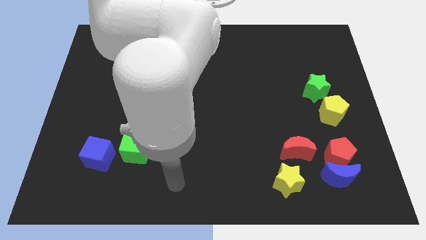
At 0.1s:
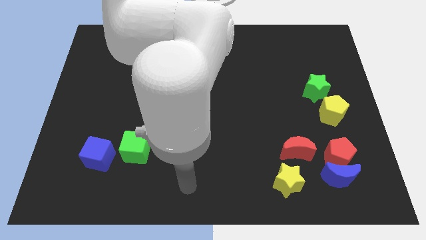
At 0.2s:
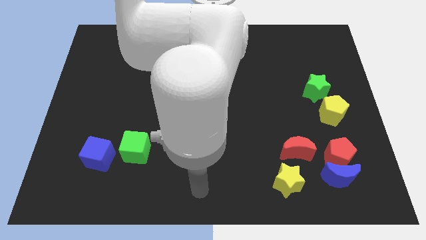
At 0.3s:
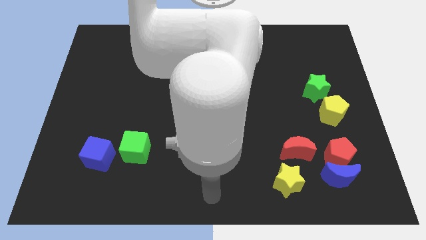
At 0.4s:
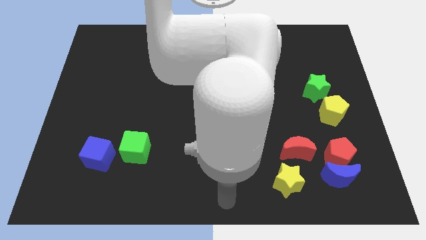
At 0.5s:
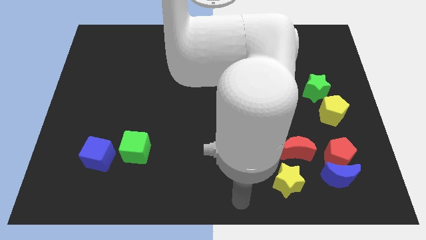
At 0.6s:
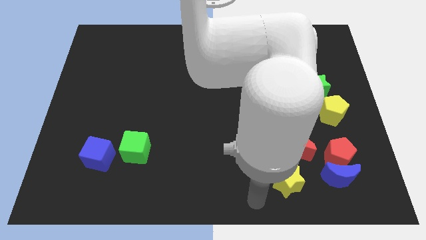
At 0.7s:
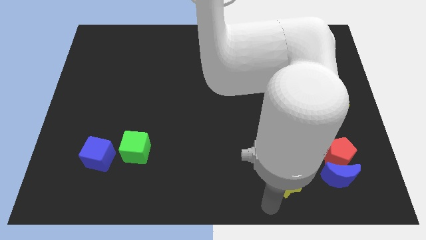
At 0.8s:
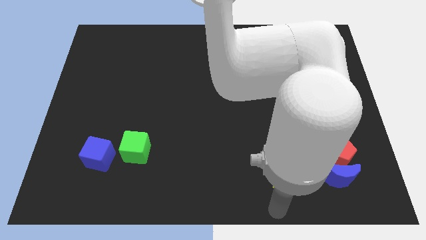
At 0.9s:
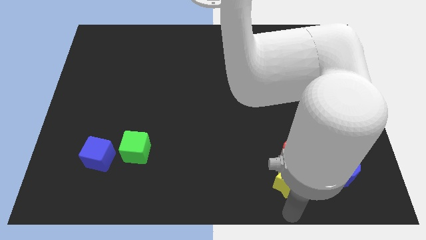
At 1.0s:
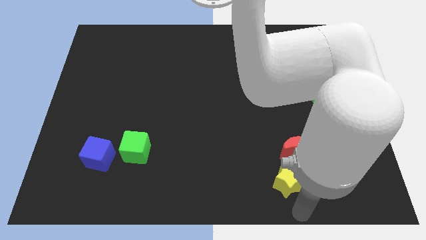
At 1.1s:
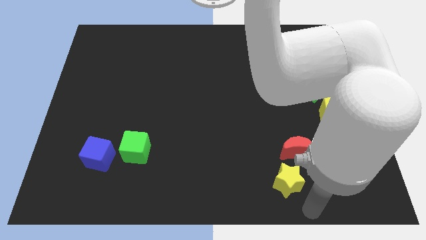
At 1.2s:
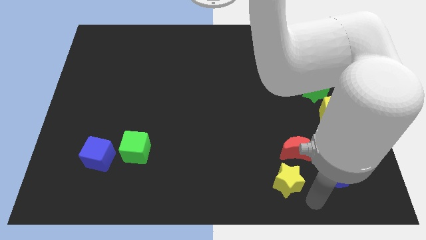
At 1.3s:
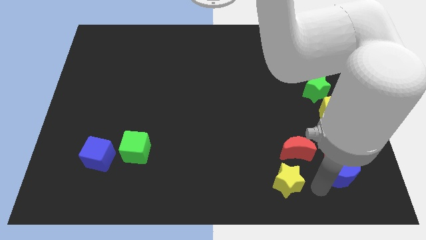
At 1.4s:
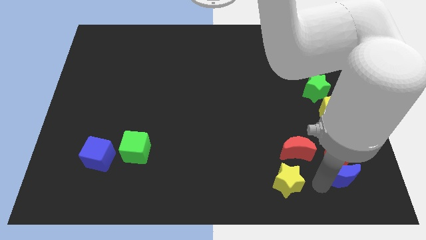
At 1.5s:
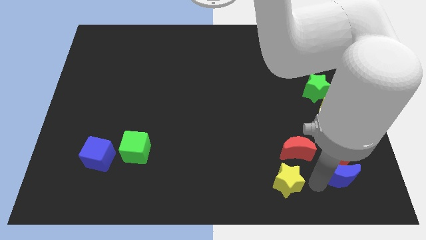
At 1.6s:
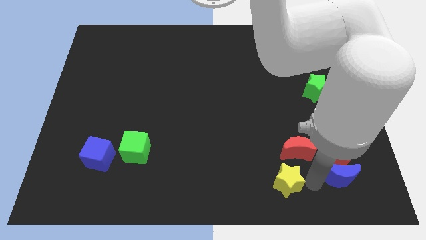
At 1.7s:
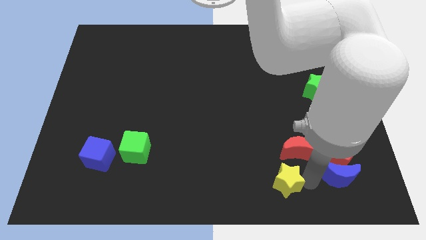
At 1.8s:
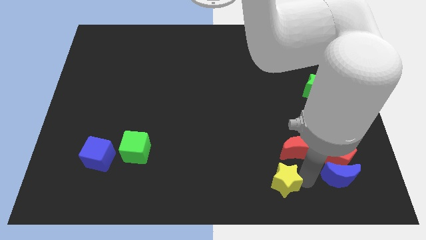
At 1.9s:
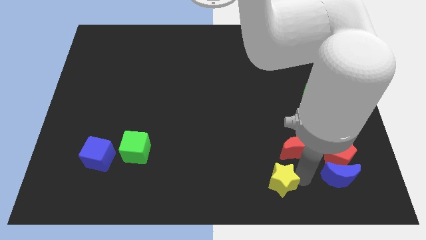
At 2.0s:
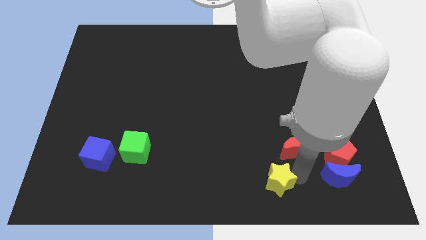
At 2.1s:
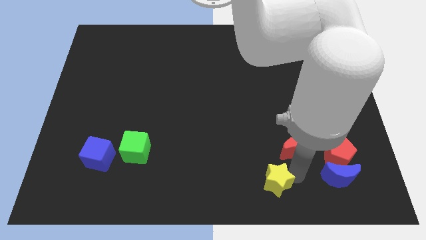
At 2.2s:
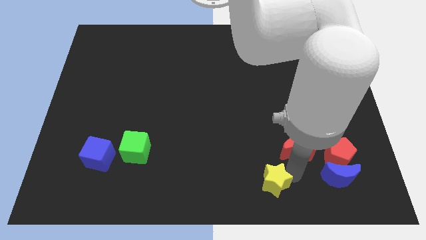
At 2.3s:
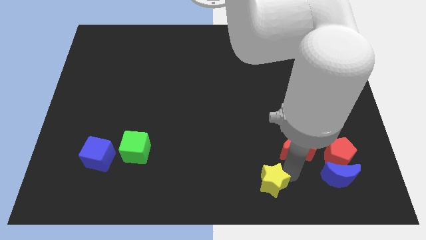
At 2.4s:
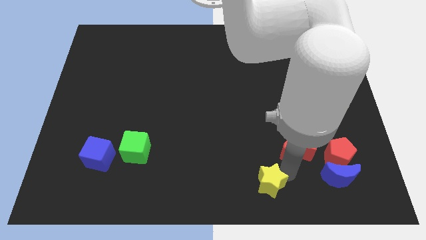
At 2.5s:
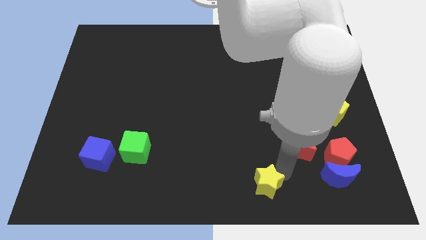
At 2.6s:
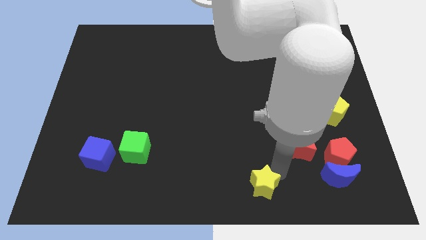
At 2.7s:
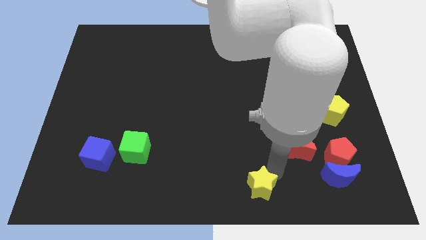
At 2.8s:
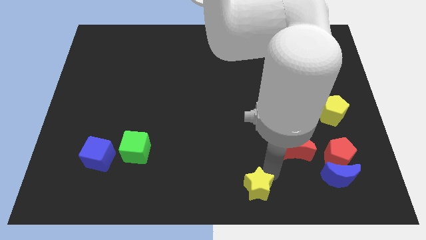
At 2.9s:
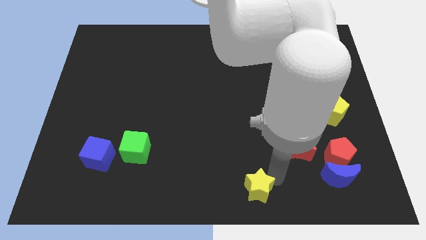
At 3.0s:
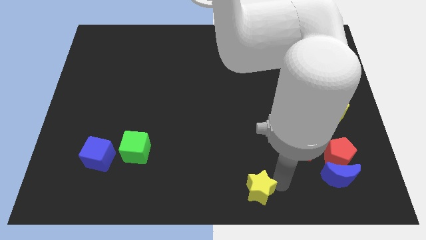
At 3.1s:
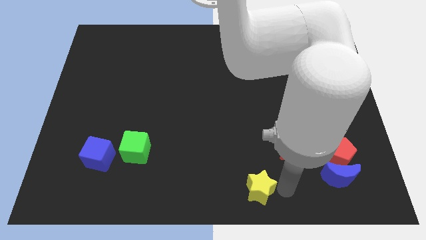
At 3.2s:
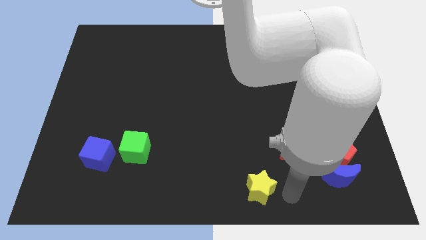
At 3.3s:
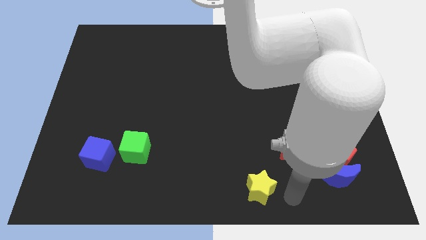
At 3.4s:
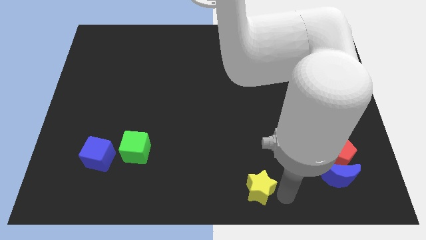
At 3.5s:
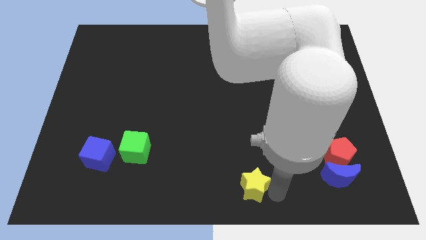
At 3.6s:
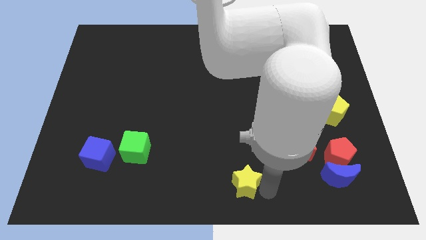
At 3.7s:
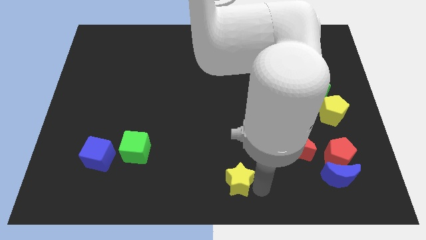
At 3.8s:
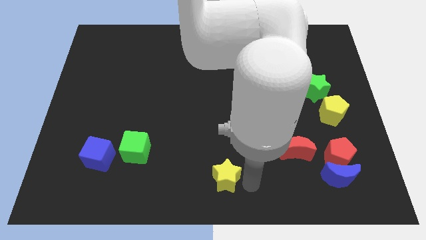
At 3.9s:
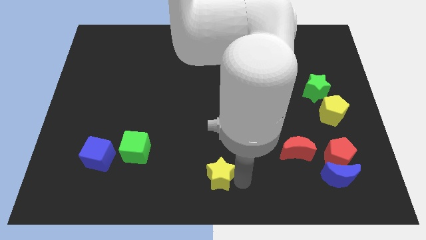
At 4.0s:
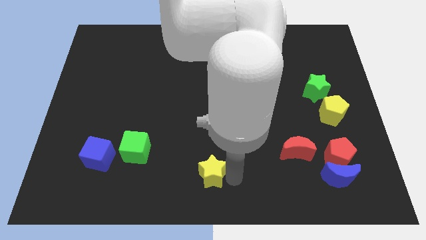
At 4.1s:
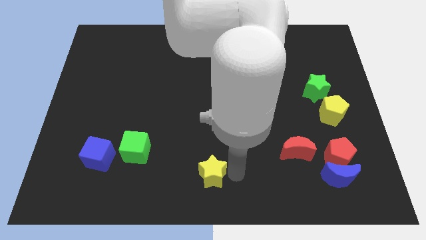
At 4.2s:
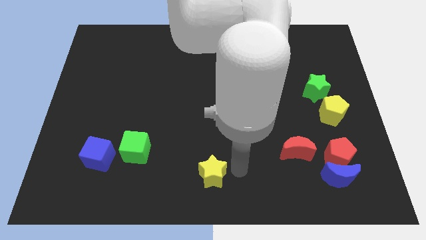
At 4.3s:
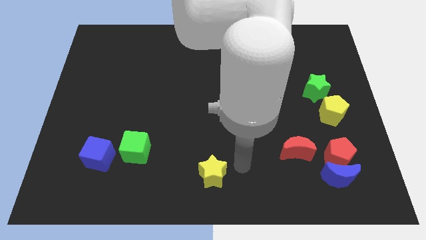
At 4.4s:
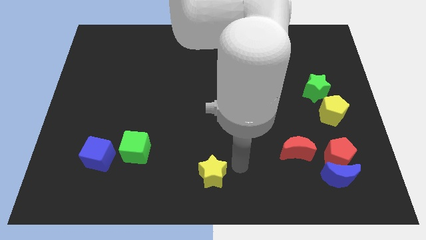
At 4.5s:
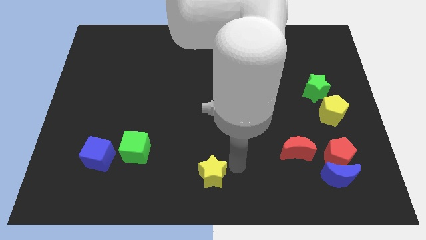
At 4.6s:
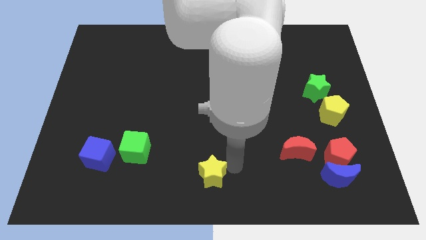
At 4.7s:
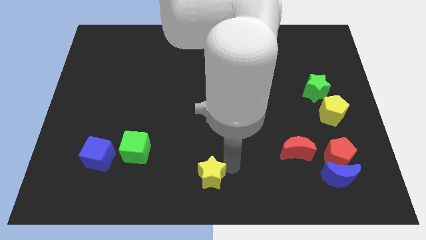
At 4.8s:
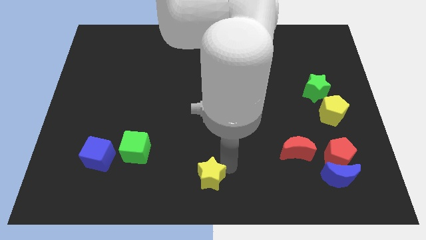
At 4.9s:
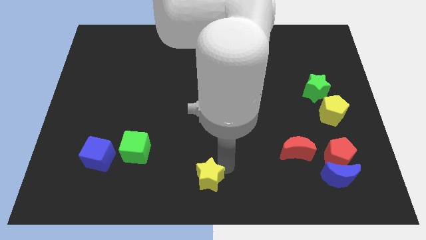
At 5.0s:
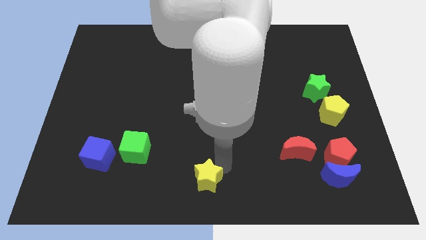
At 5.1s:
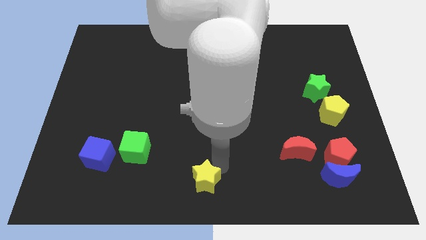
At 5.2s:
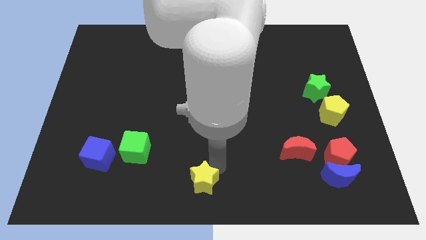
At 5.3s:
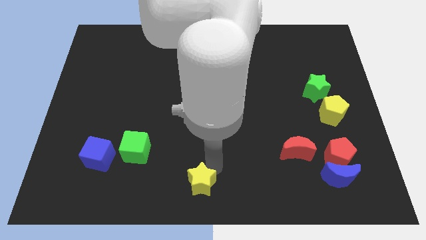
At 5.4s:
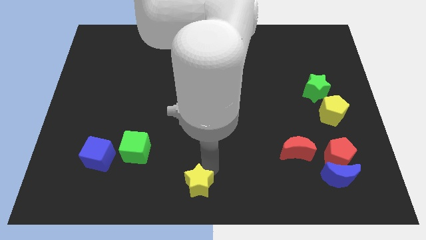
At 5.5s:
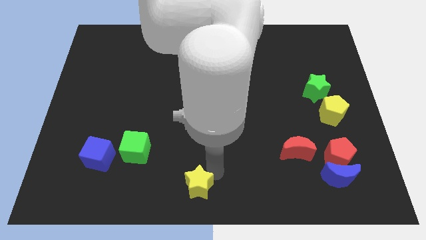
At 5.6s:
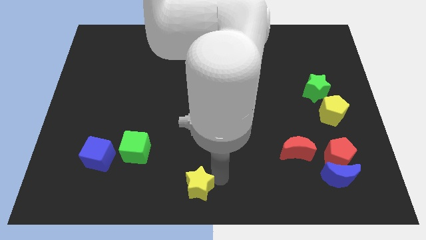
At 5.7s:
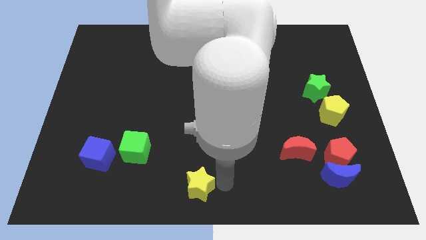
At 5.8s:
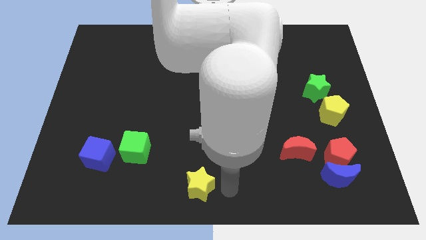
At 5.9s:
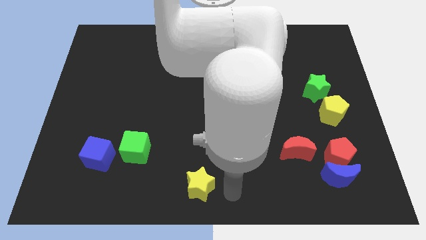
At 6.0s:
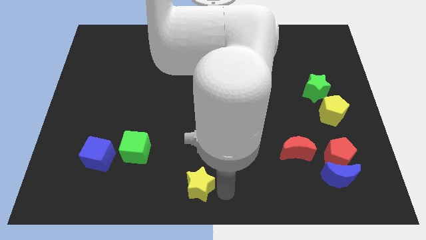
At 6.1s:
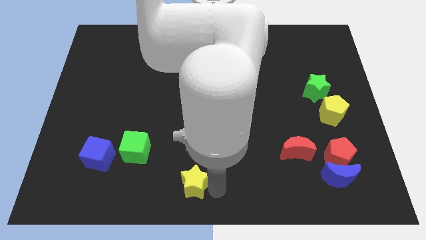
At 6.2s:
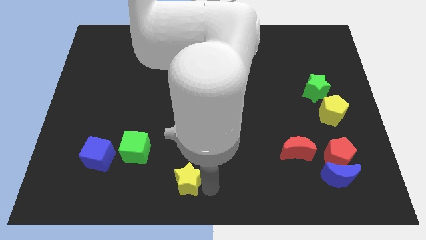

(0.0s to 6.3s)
push the yellow star to the left

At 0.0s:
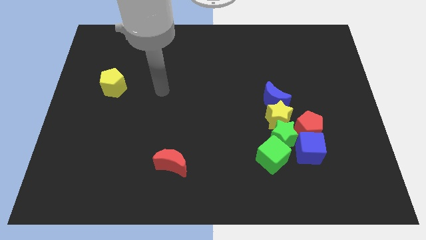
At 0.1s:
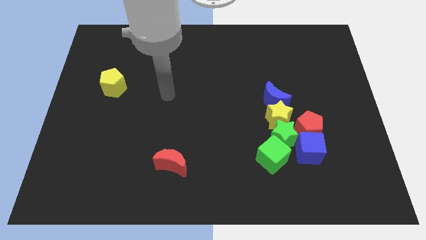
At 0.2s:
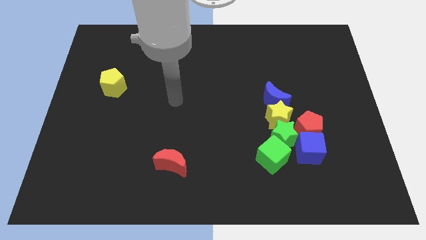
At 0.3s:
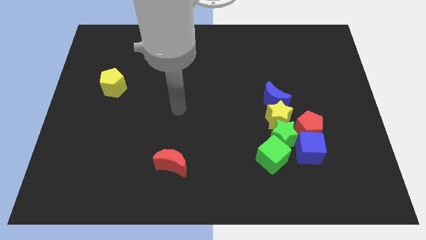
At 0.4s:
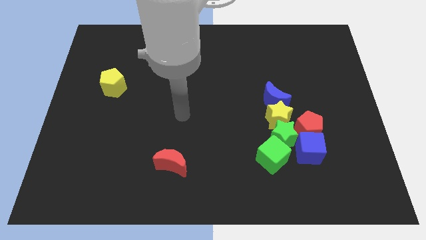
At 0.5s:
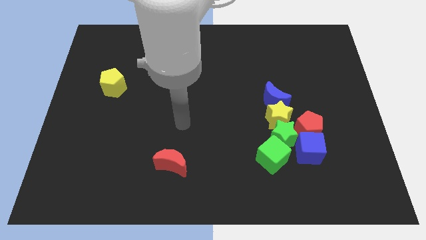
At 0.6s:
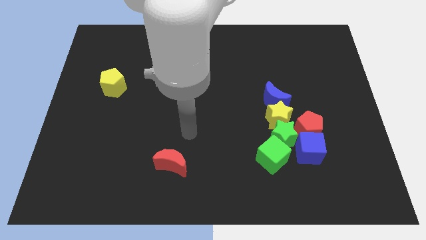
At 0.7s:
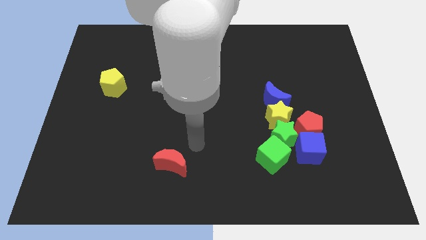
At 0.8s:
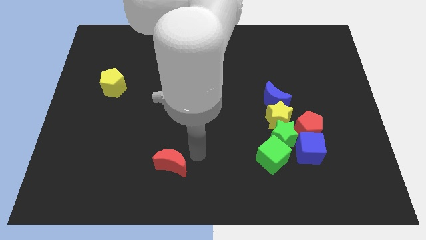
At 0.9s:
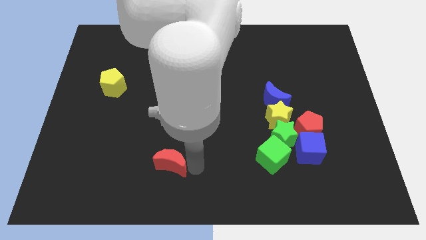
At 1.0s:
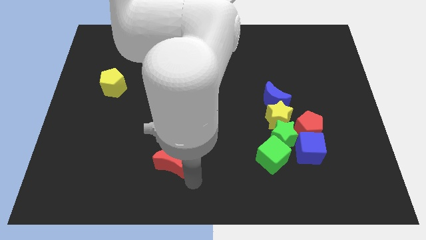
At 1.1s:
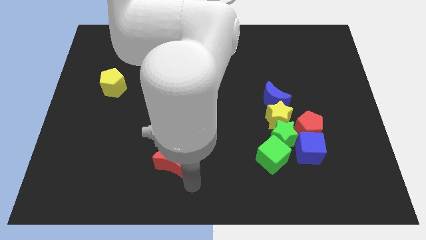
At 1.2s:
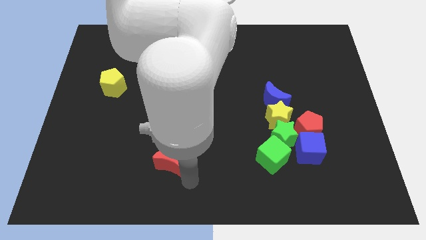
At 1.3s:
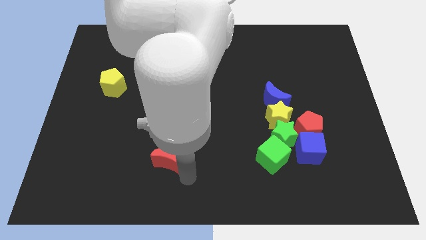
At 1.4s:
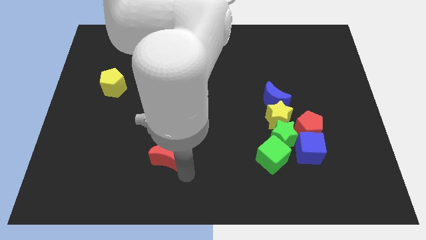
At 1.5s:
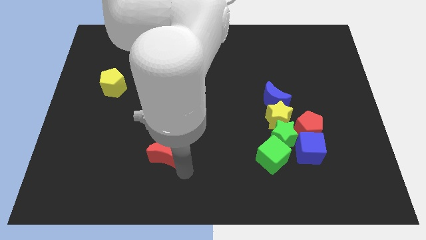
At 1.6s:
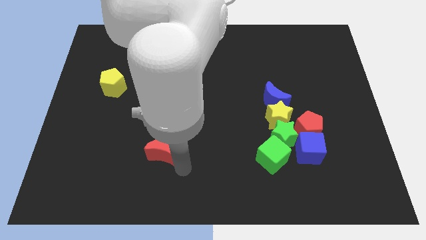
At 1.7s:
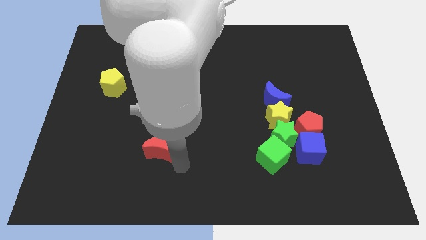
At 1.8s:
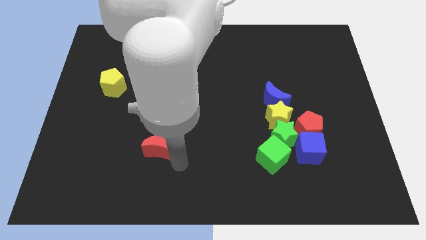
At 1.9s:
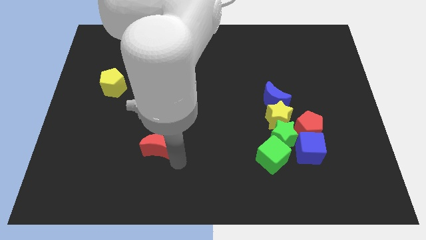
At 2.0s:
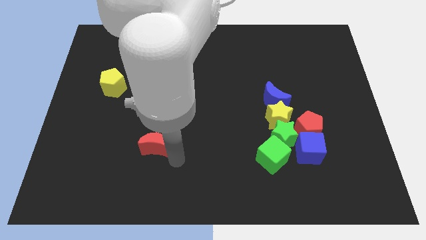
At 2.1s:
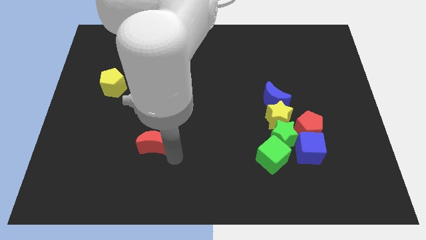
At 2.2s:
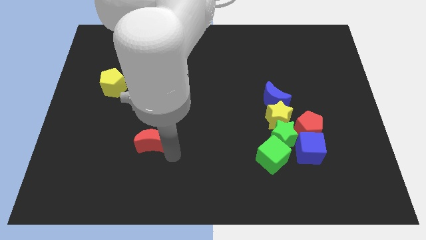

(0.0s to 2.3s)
slightly slide the red moon upwards and to the left
